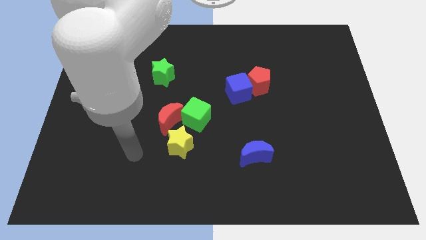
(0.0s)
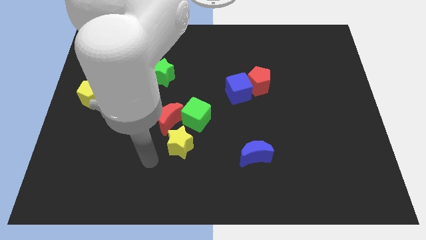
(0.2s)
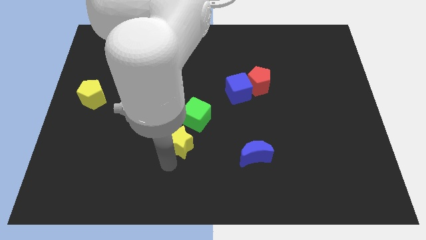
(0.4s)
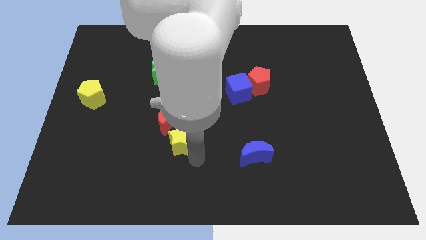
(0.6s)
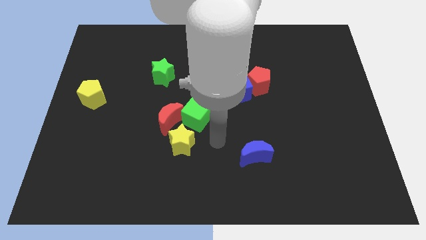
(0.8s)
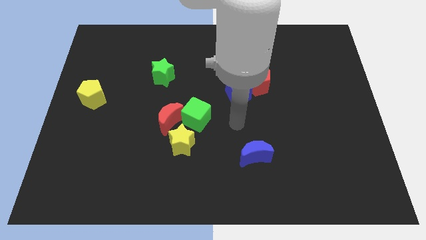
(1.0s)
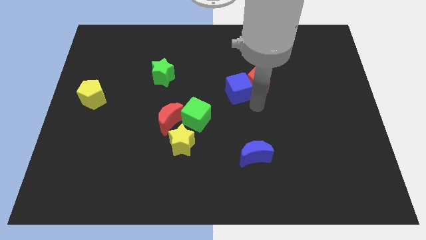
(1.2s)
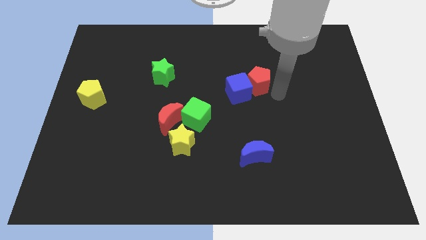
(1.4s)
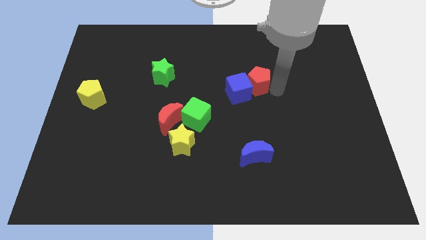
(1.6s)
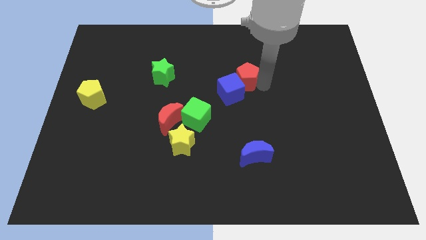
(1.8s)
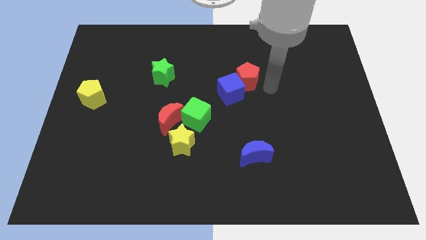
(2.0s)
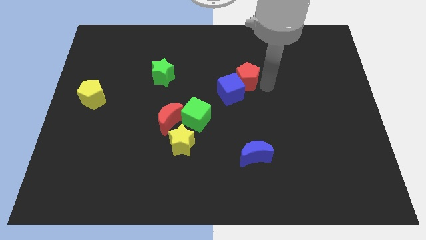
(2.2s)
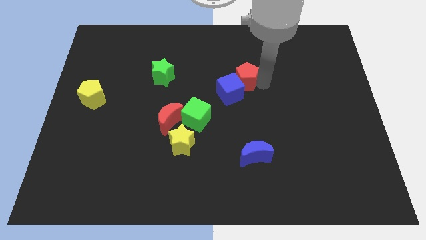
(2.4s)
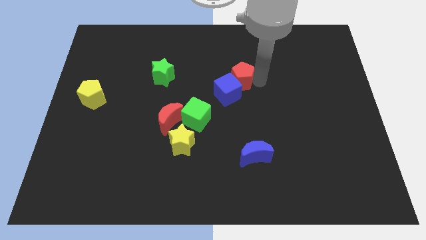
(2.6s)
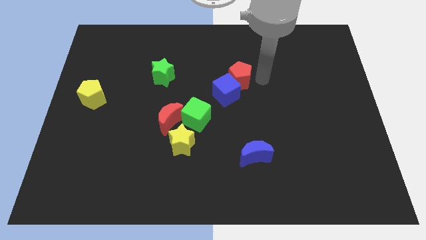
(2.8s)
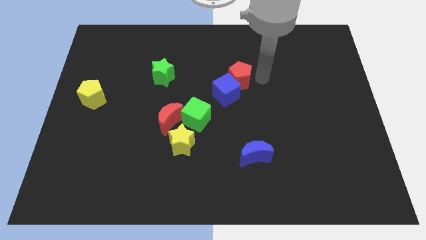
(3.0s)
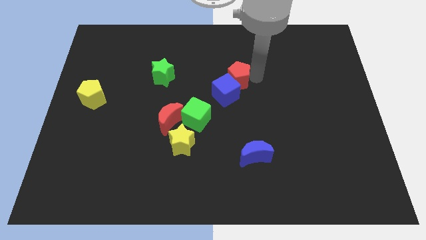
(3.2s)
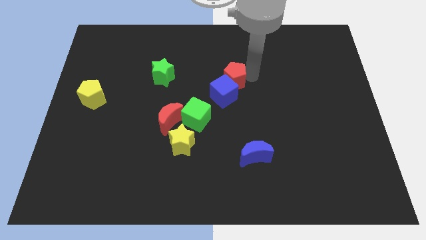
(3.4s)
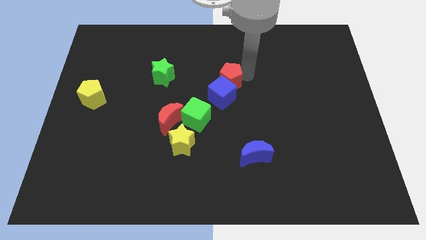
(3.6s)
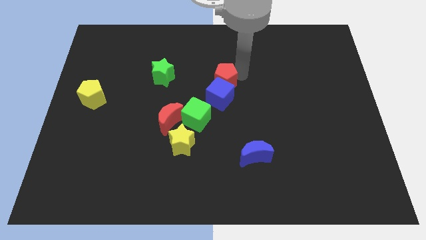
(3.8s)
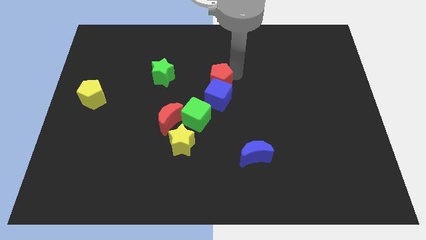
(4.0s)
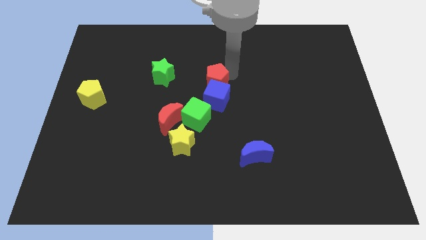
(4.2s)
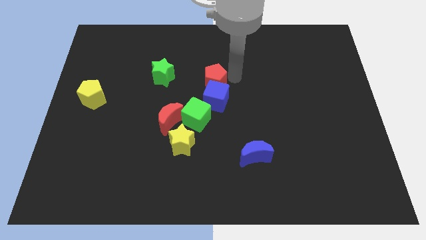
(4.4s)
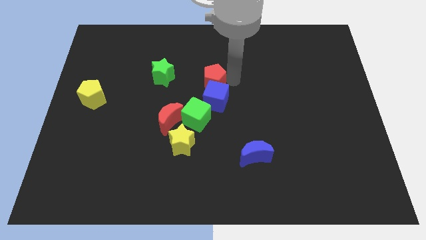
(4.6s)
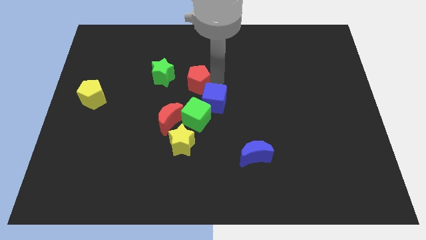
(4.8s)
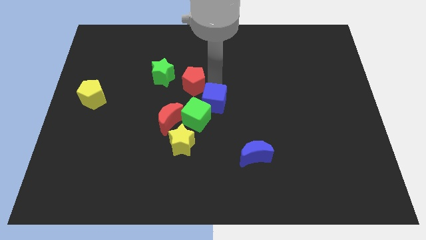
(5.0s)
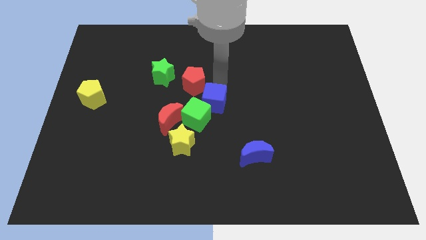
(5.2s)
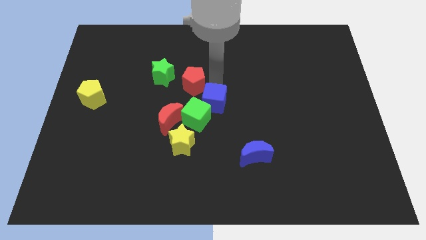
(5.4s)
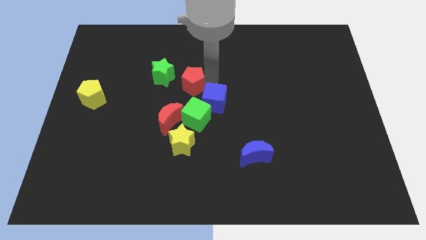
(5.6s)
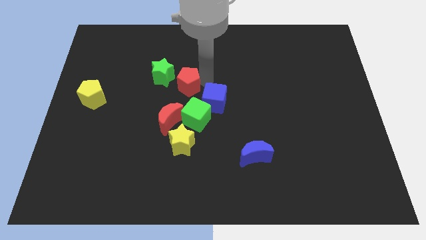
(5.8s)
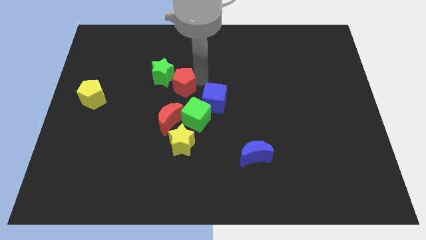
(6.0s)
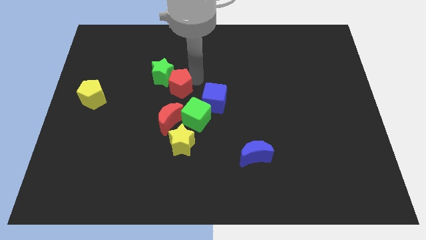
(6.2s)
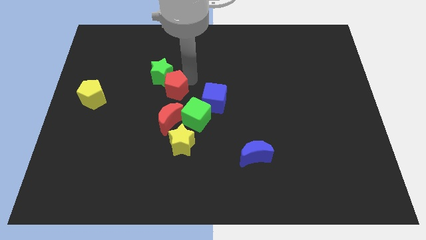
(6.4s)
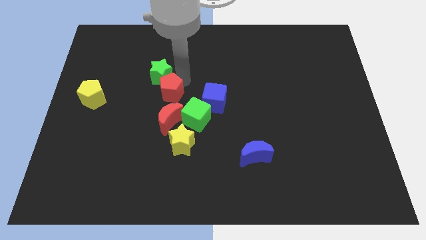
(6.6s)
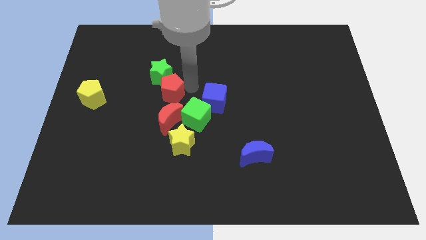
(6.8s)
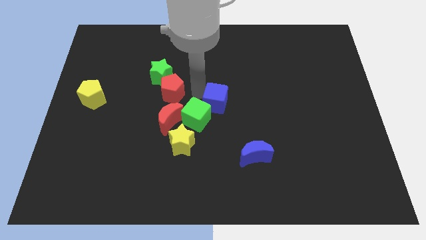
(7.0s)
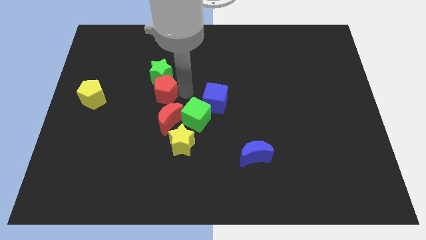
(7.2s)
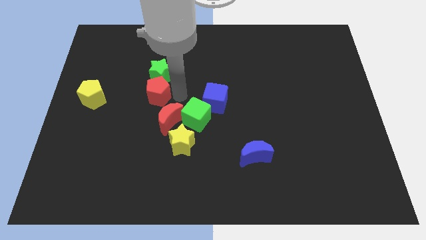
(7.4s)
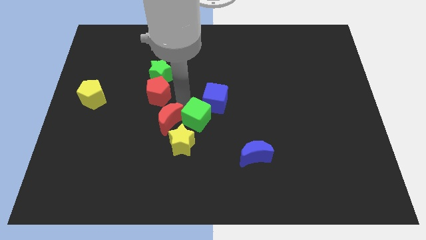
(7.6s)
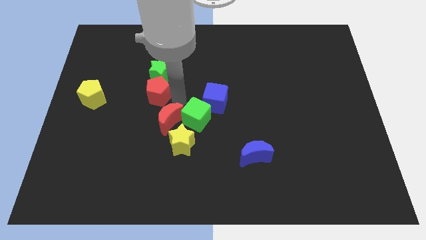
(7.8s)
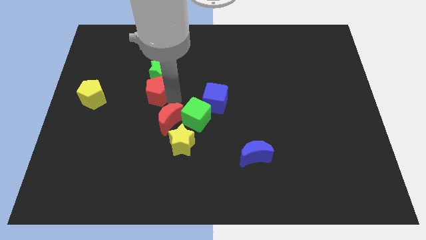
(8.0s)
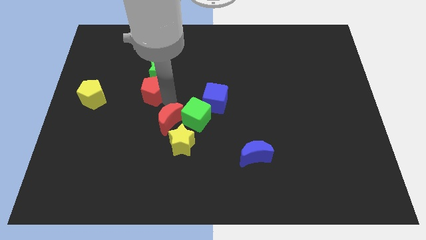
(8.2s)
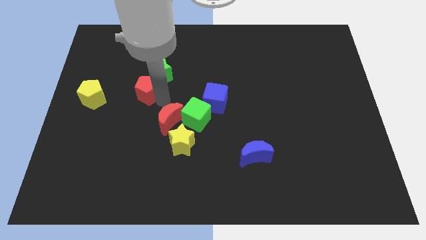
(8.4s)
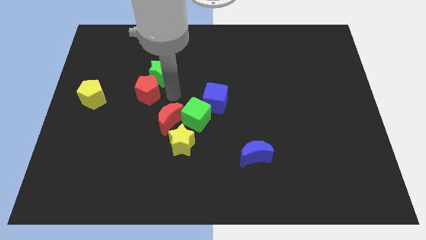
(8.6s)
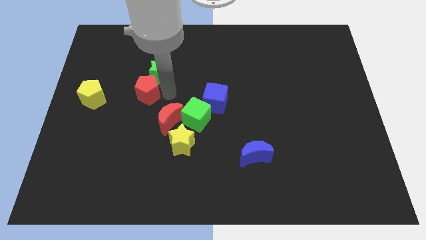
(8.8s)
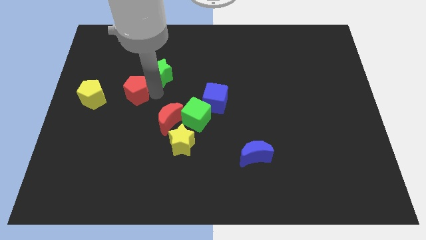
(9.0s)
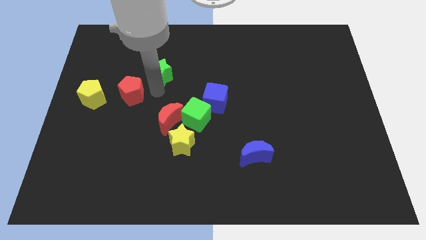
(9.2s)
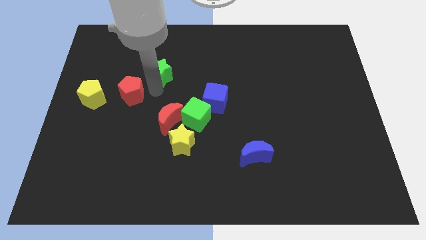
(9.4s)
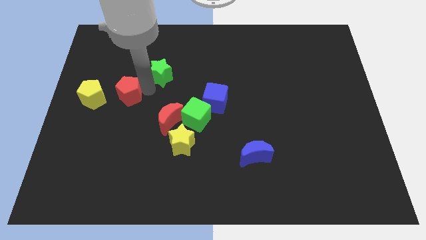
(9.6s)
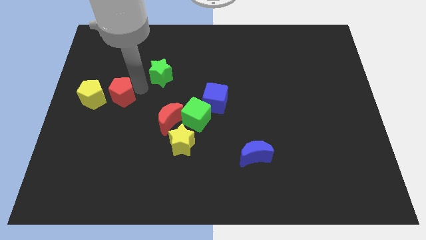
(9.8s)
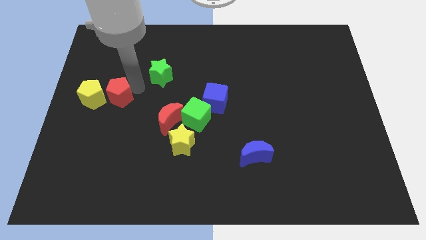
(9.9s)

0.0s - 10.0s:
move the red pentagon next to the yellow pentagon

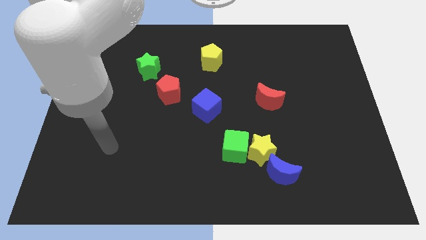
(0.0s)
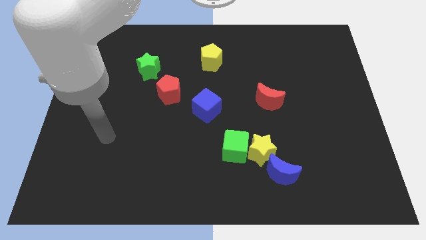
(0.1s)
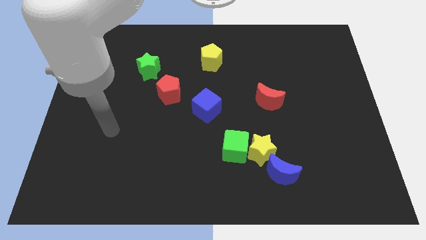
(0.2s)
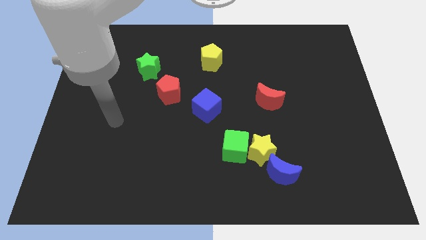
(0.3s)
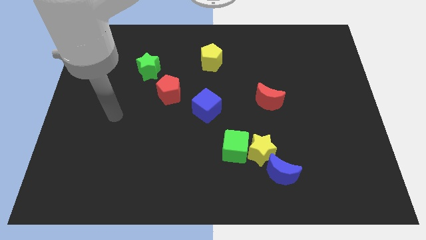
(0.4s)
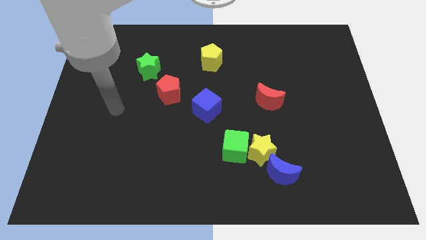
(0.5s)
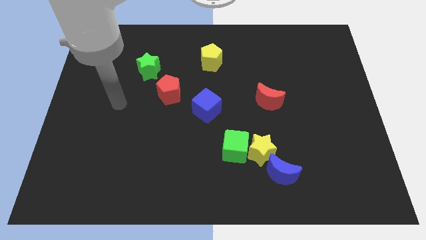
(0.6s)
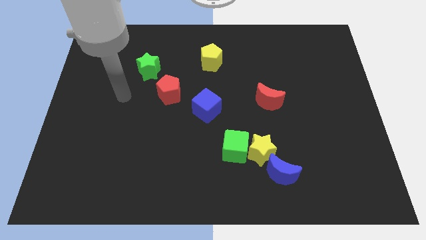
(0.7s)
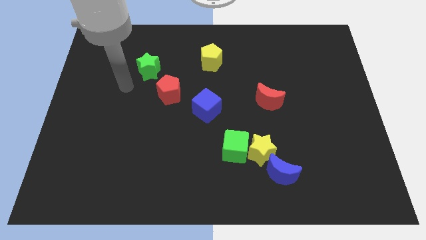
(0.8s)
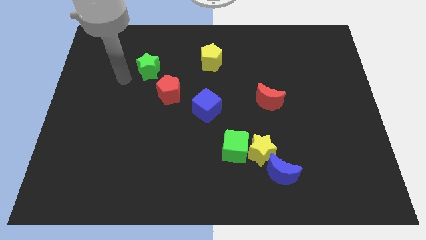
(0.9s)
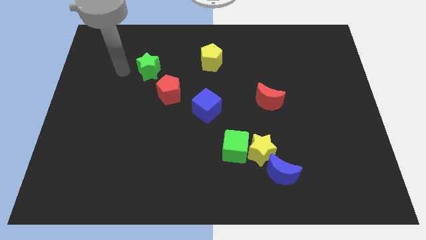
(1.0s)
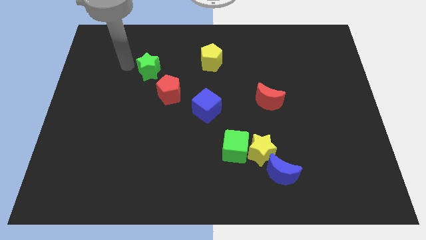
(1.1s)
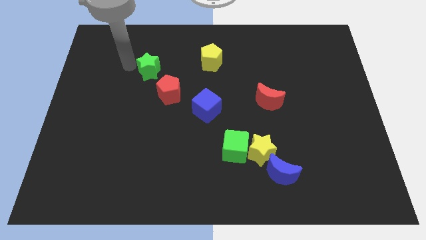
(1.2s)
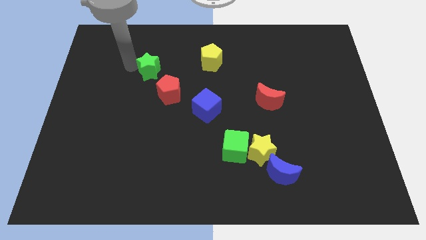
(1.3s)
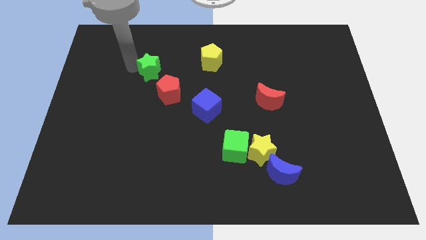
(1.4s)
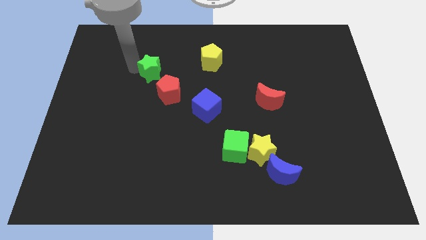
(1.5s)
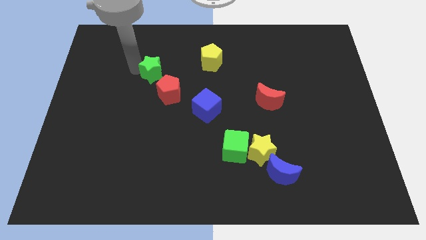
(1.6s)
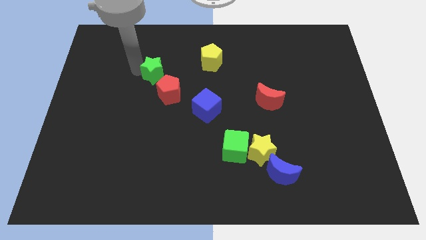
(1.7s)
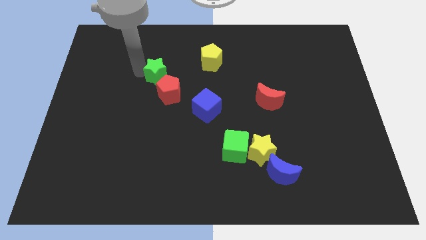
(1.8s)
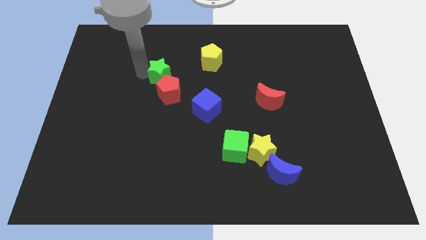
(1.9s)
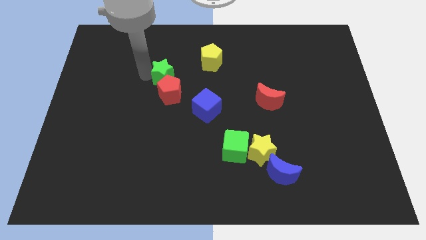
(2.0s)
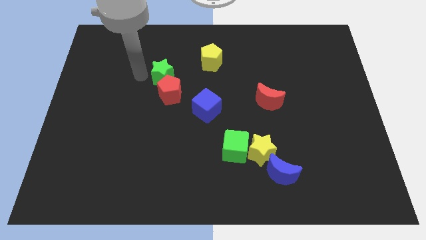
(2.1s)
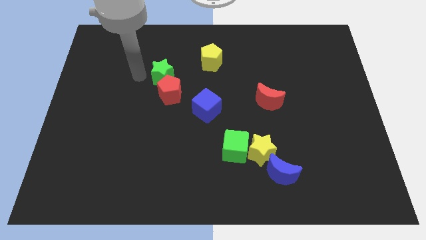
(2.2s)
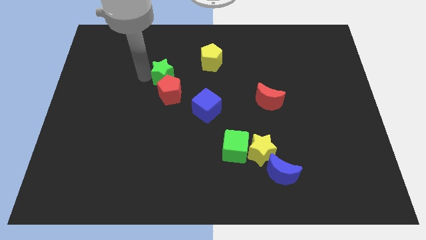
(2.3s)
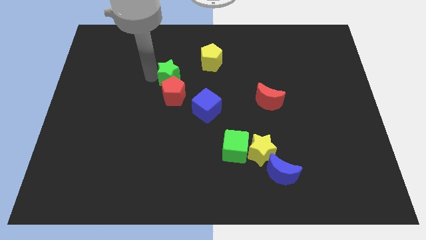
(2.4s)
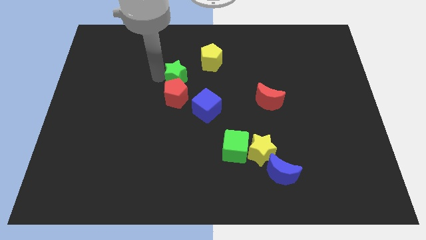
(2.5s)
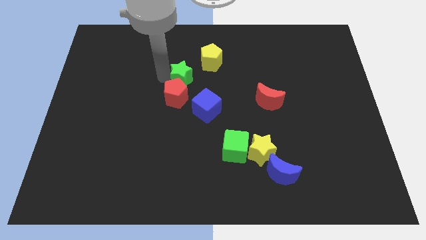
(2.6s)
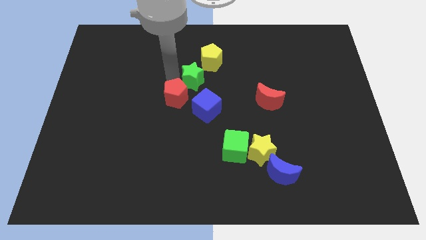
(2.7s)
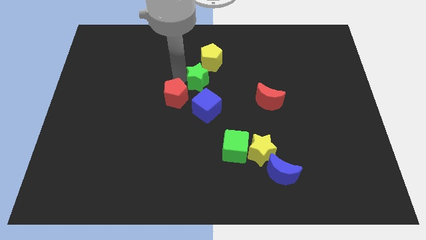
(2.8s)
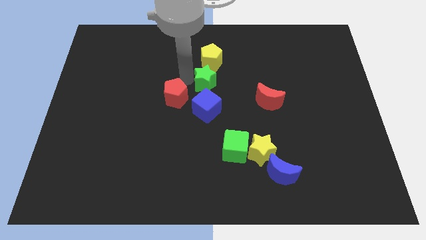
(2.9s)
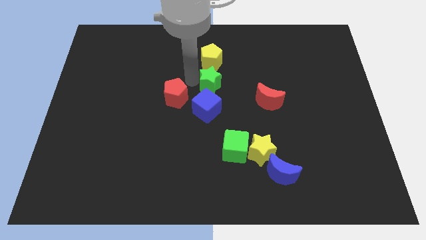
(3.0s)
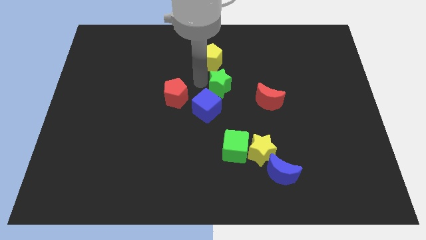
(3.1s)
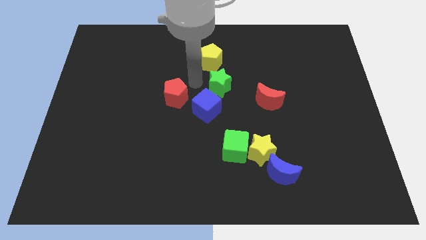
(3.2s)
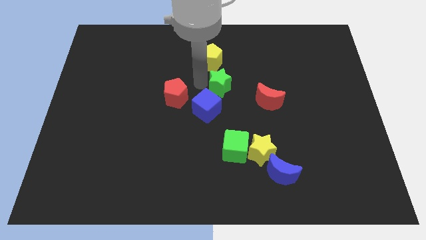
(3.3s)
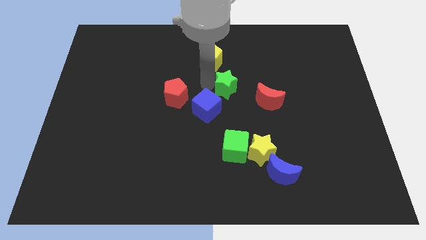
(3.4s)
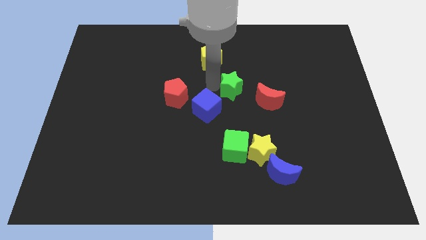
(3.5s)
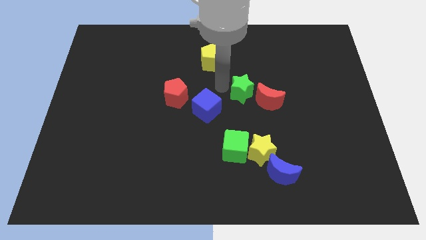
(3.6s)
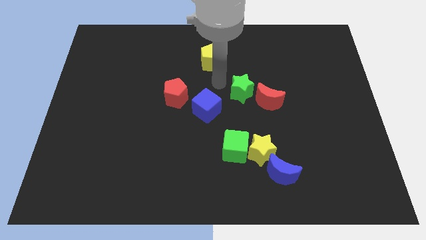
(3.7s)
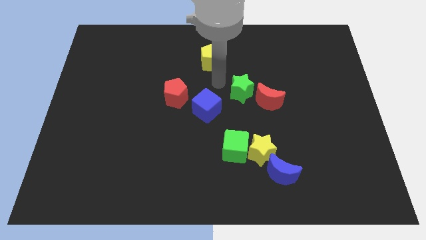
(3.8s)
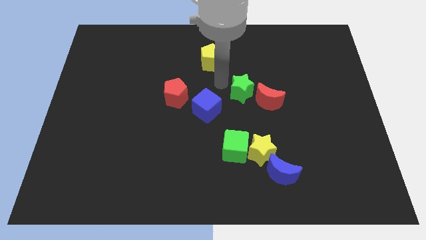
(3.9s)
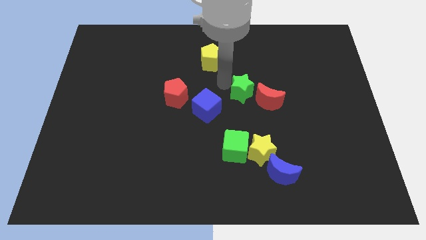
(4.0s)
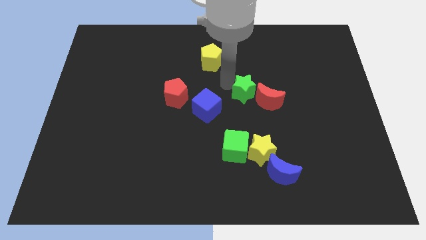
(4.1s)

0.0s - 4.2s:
slide the green star to the red moon
